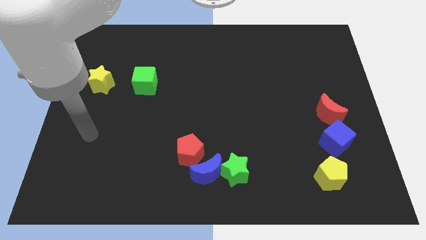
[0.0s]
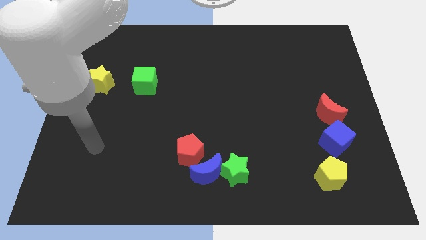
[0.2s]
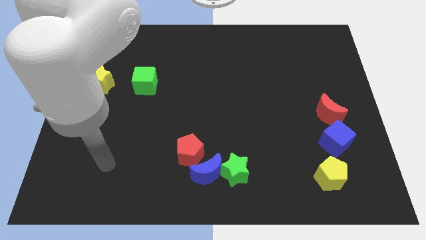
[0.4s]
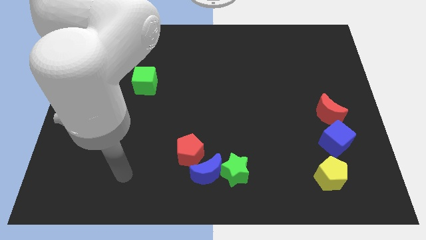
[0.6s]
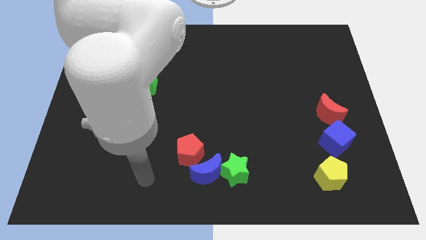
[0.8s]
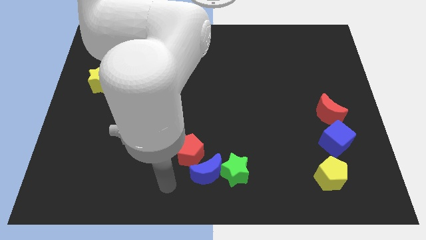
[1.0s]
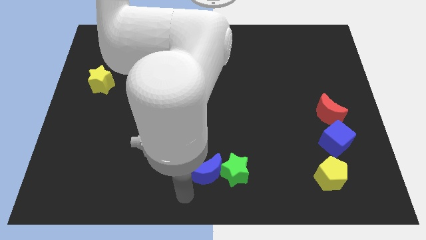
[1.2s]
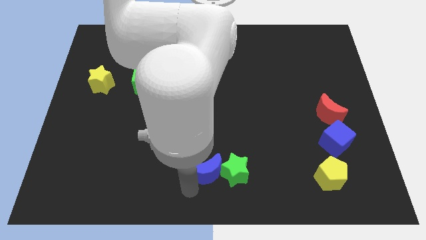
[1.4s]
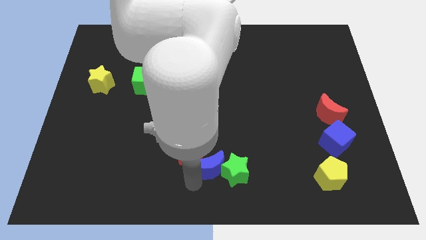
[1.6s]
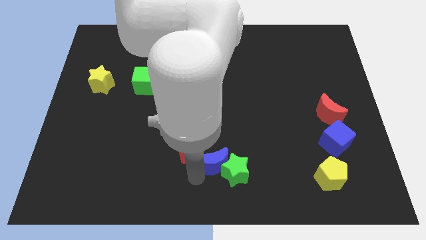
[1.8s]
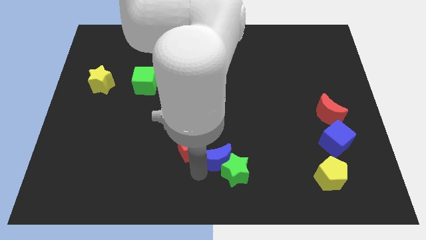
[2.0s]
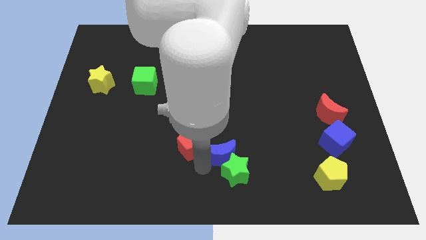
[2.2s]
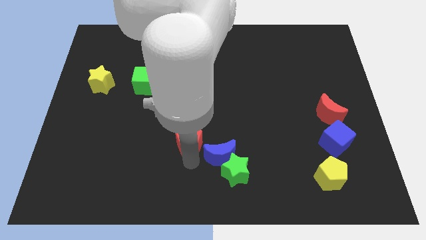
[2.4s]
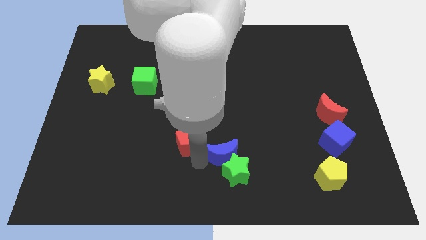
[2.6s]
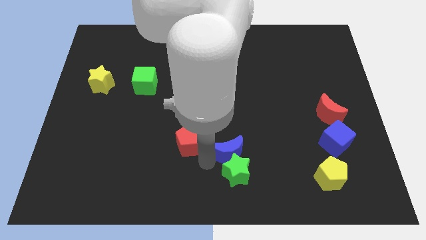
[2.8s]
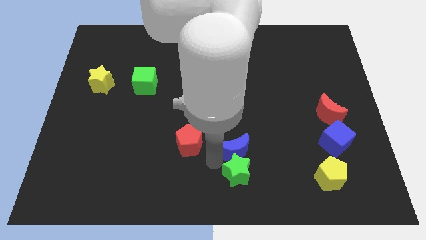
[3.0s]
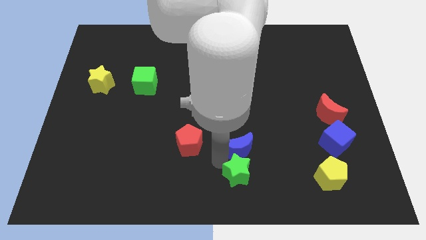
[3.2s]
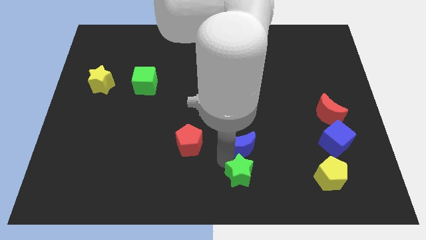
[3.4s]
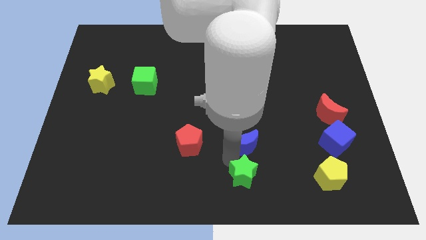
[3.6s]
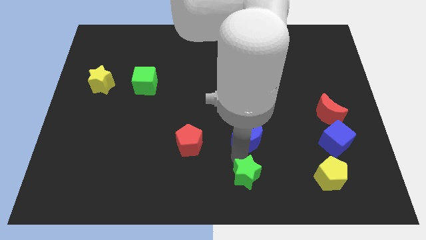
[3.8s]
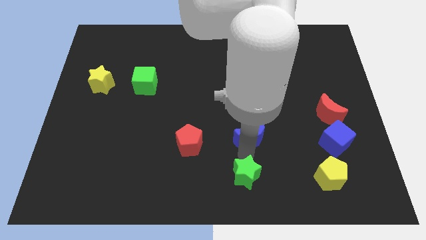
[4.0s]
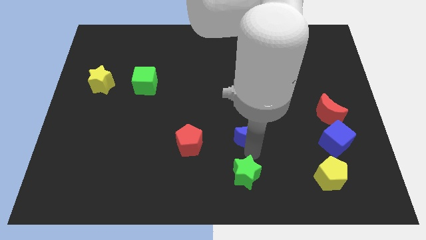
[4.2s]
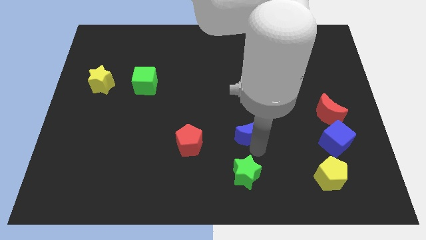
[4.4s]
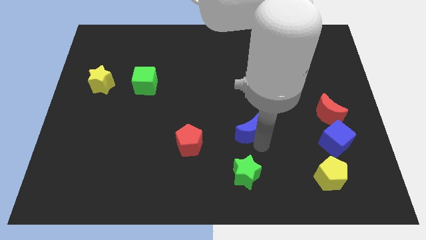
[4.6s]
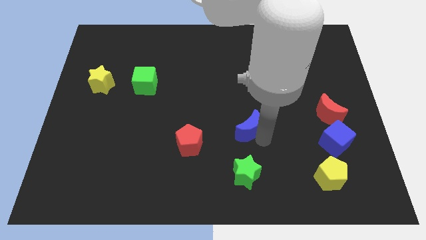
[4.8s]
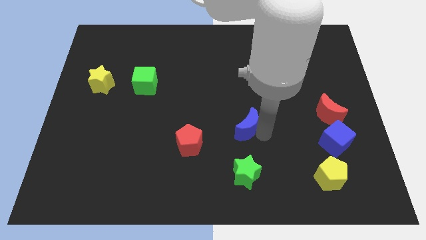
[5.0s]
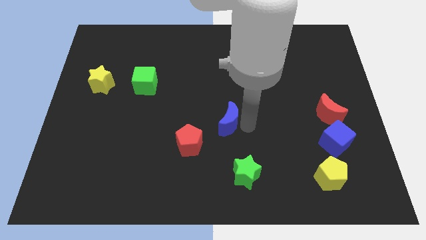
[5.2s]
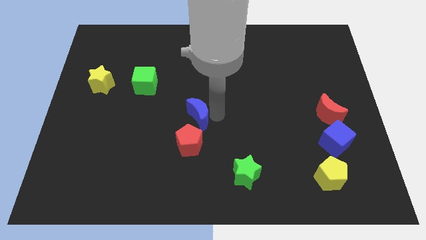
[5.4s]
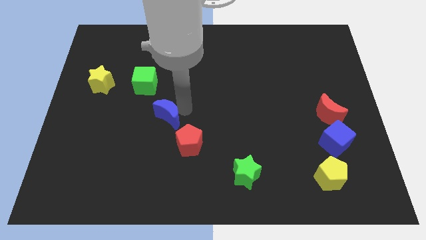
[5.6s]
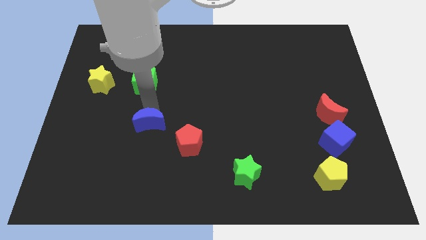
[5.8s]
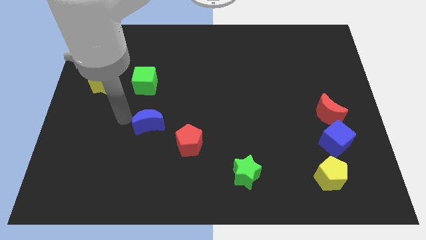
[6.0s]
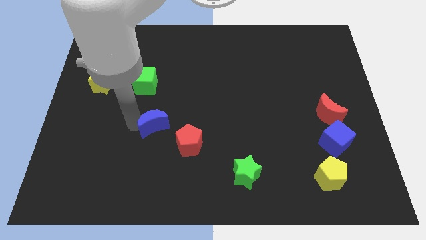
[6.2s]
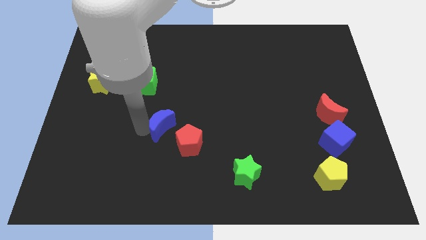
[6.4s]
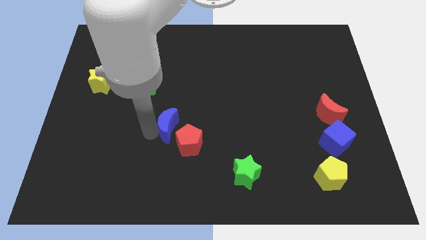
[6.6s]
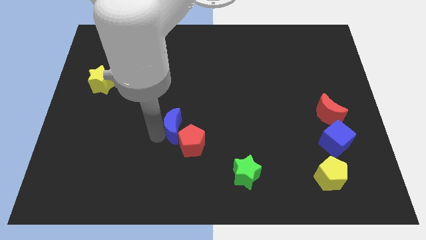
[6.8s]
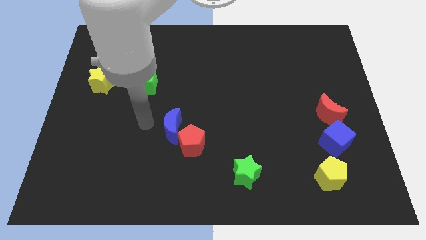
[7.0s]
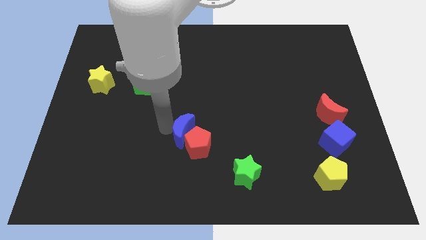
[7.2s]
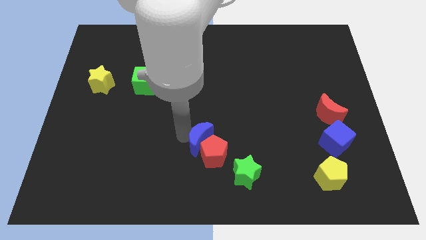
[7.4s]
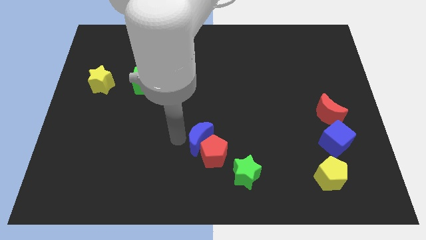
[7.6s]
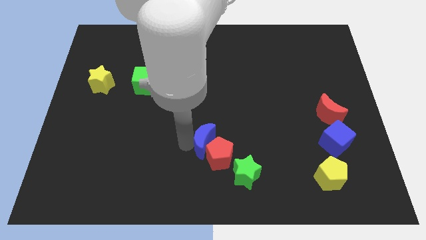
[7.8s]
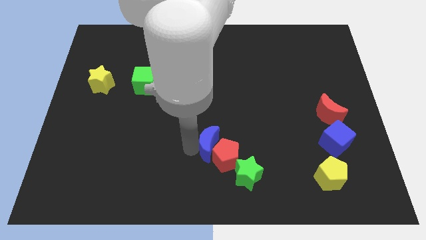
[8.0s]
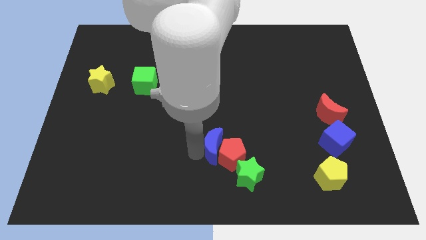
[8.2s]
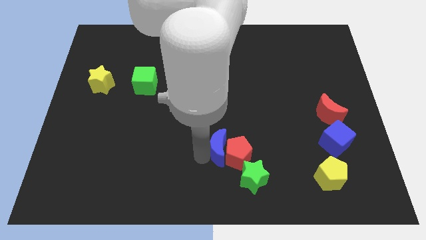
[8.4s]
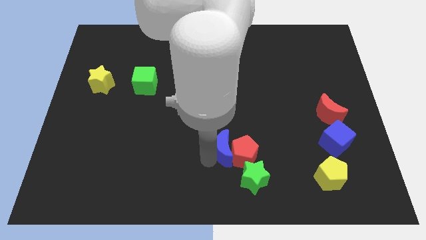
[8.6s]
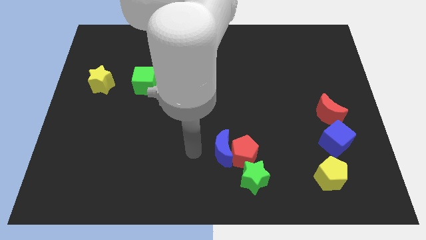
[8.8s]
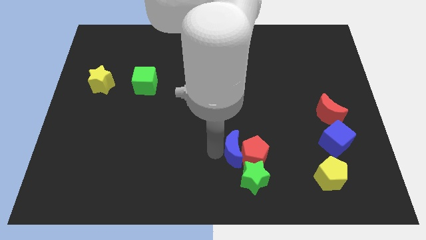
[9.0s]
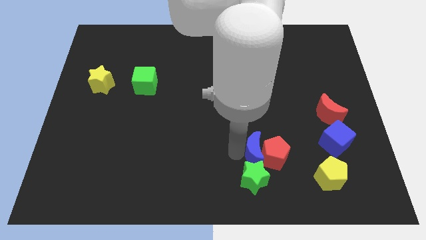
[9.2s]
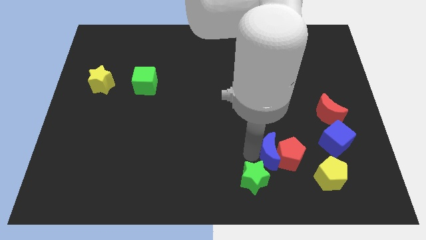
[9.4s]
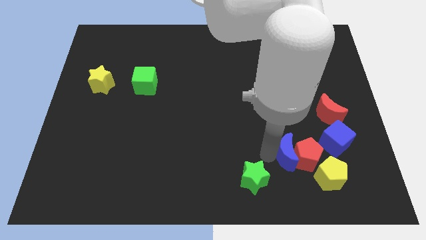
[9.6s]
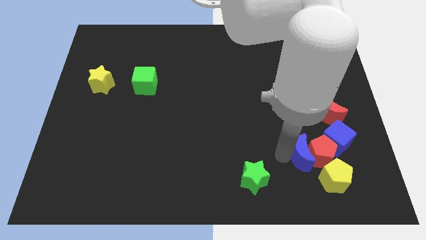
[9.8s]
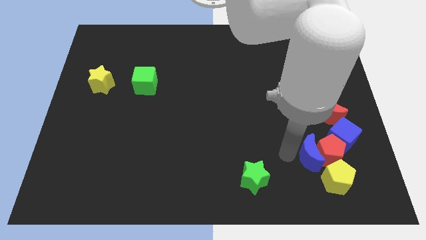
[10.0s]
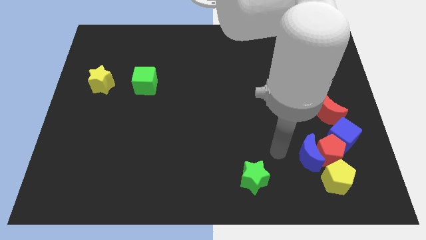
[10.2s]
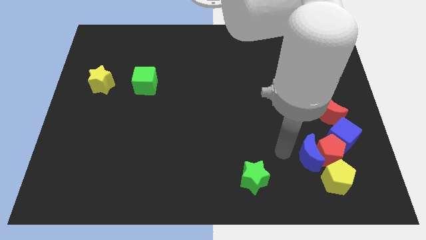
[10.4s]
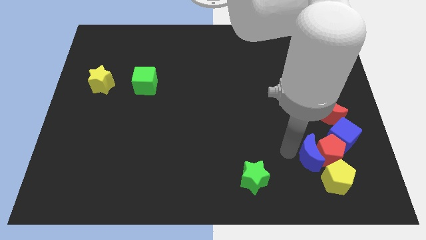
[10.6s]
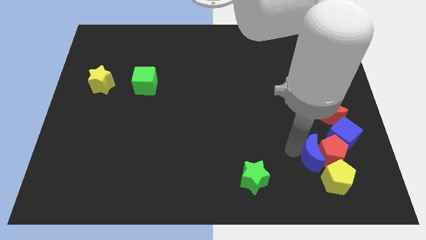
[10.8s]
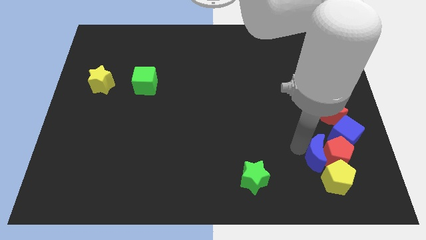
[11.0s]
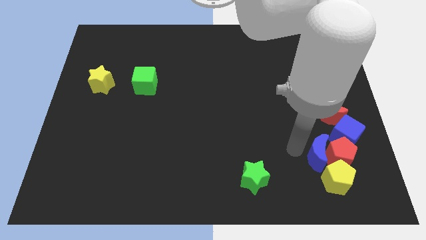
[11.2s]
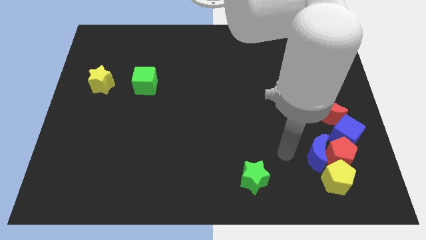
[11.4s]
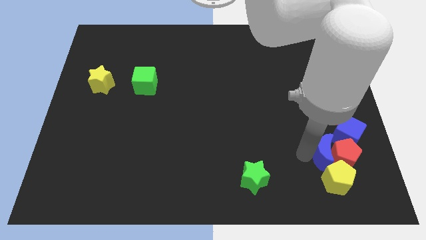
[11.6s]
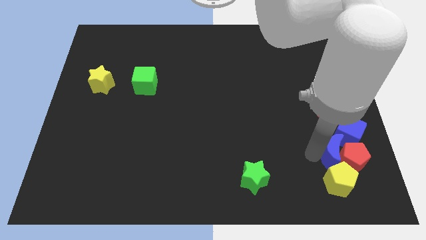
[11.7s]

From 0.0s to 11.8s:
move the blue moon diagonally up and to the right of the yellow pentagon

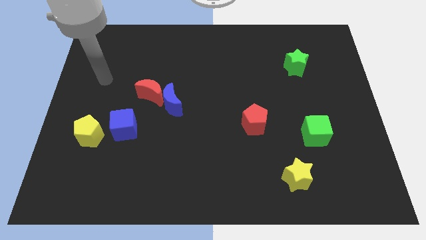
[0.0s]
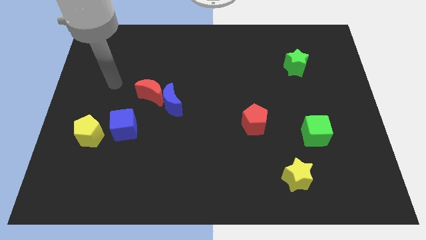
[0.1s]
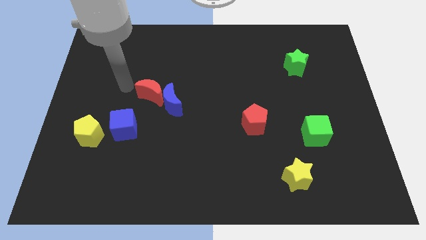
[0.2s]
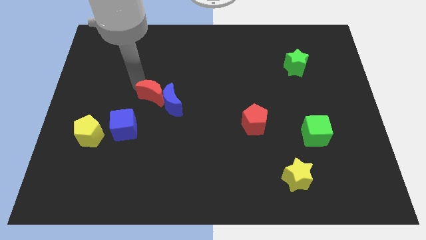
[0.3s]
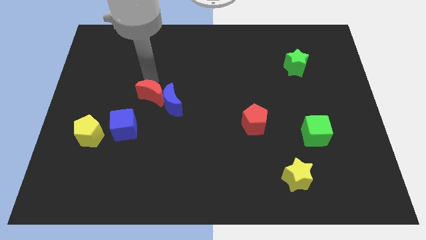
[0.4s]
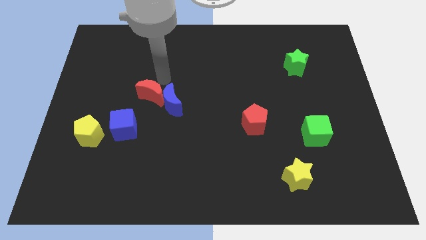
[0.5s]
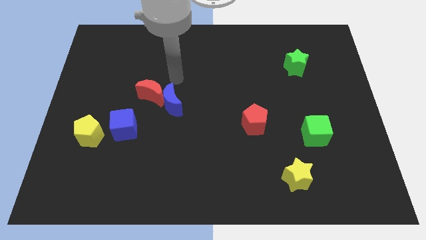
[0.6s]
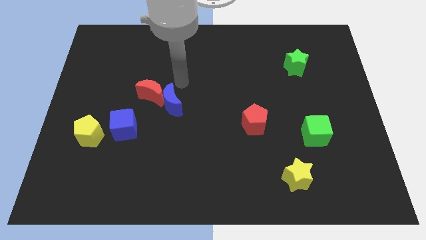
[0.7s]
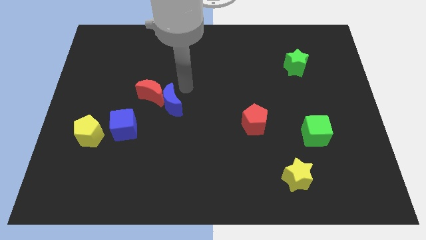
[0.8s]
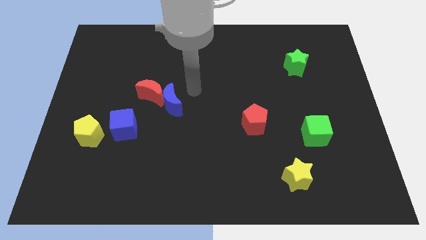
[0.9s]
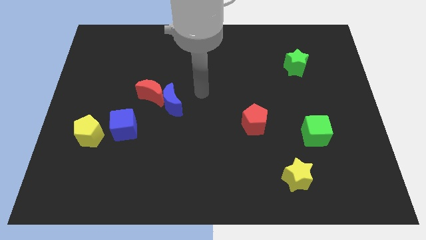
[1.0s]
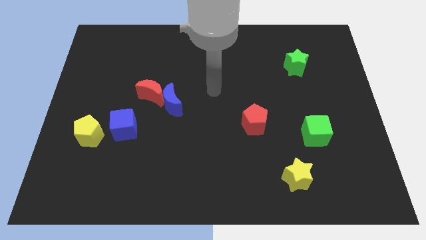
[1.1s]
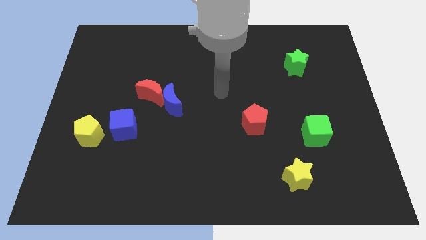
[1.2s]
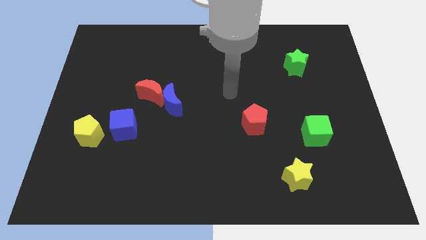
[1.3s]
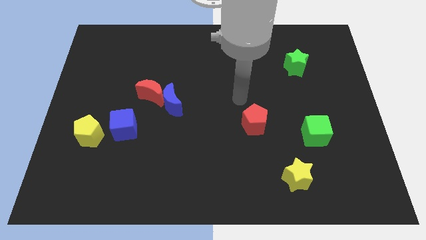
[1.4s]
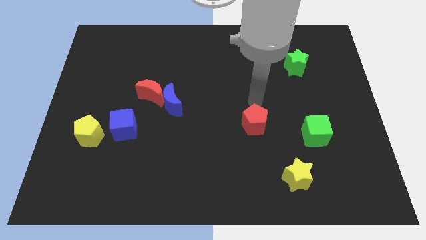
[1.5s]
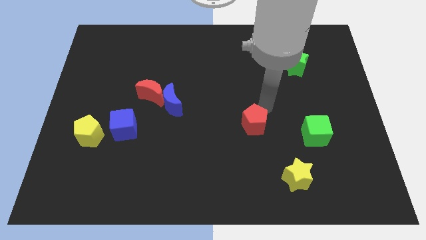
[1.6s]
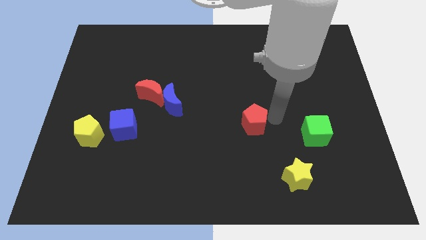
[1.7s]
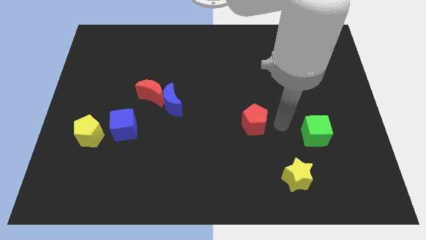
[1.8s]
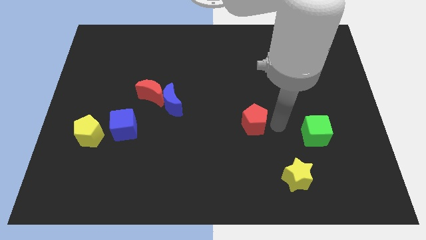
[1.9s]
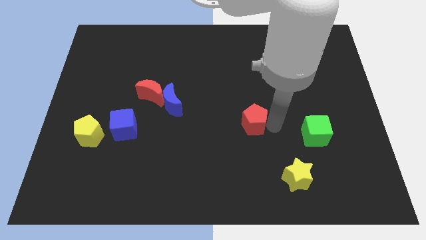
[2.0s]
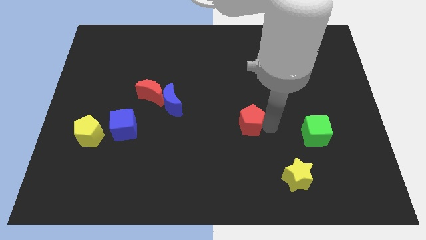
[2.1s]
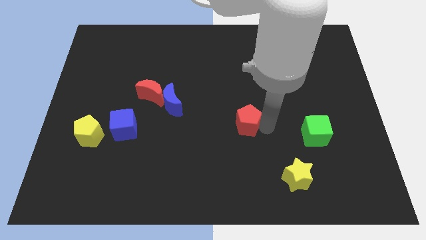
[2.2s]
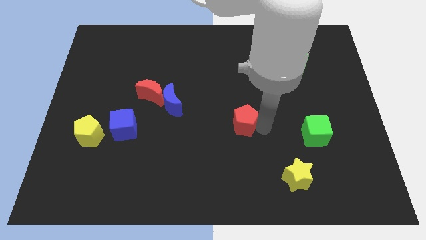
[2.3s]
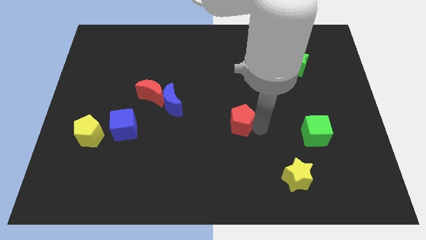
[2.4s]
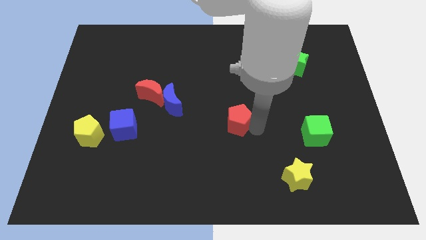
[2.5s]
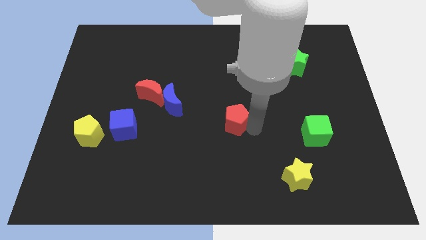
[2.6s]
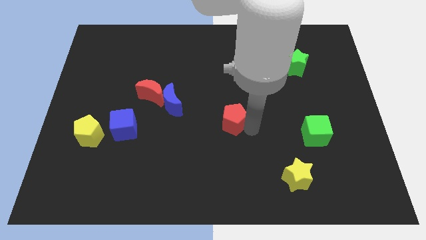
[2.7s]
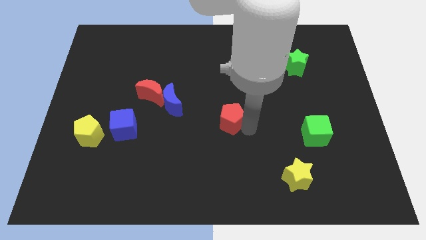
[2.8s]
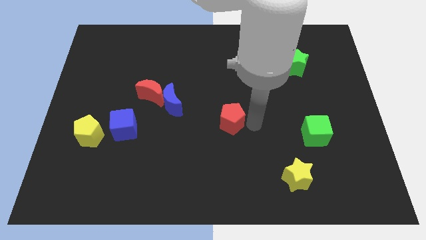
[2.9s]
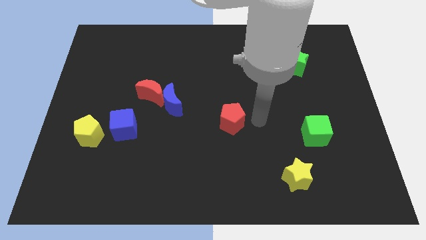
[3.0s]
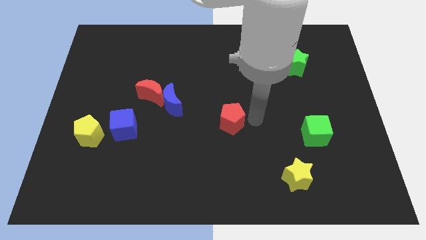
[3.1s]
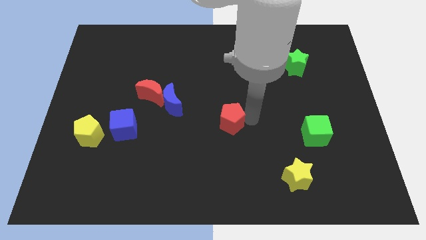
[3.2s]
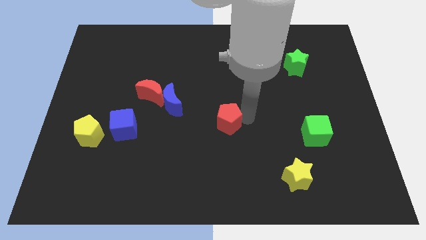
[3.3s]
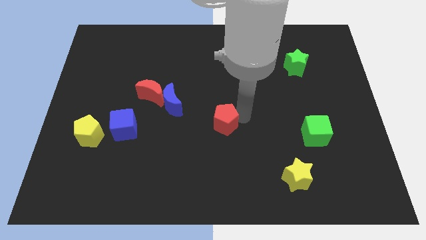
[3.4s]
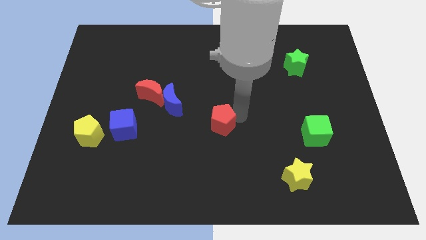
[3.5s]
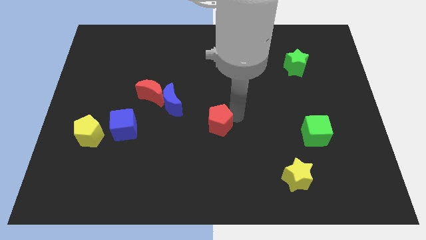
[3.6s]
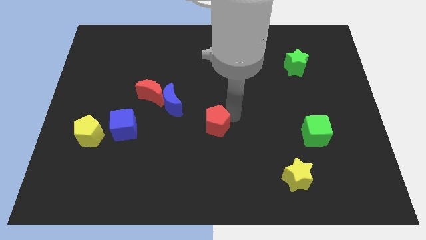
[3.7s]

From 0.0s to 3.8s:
push the red pentagon to the bottom right side of the blue moon
